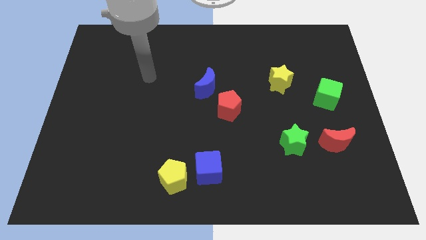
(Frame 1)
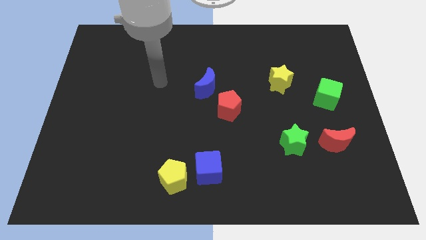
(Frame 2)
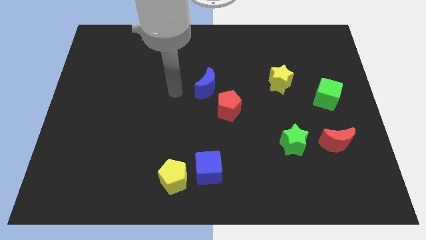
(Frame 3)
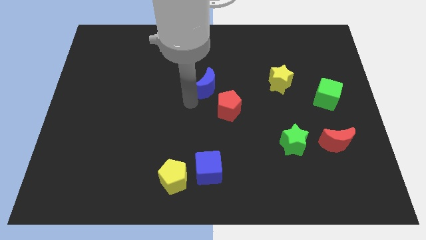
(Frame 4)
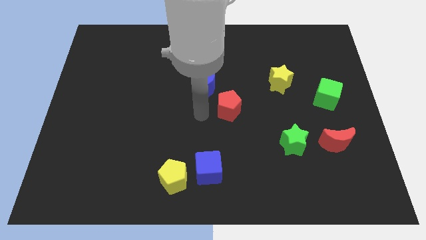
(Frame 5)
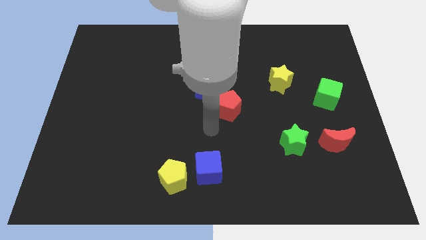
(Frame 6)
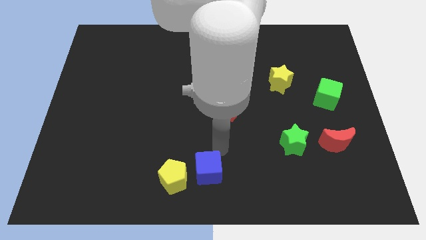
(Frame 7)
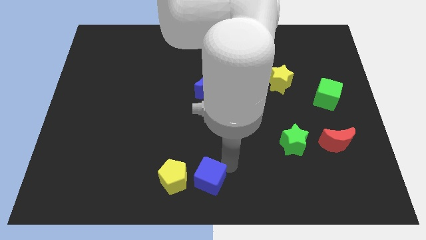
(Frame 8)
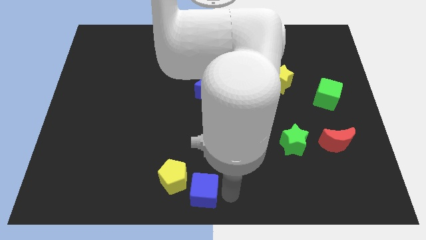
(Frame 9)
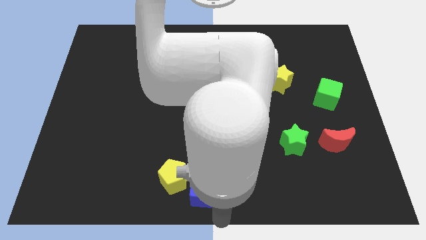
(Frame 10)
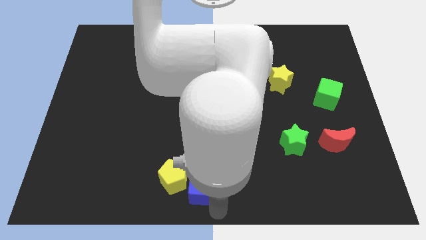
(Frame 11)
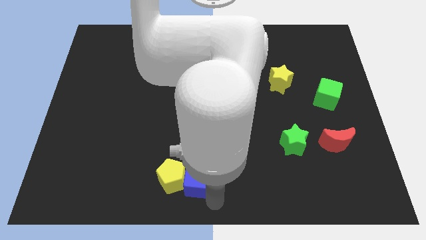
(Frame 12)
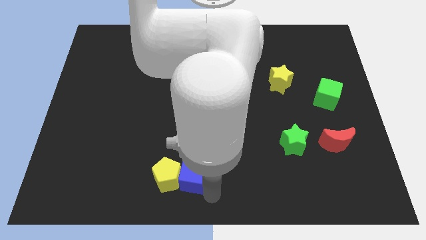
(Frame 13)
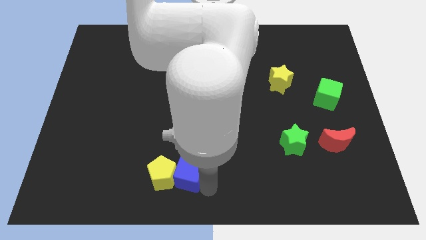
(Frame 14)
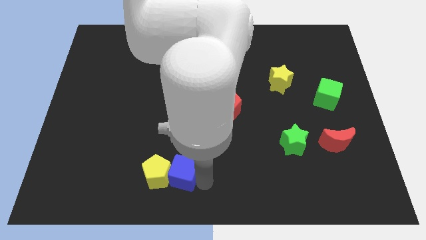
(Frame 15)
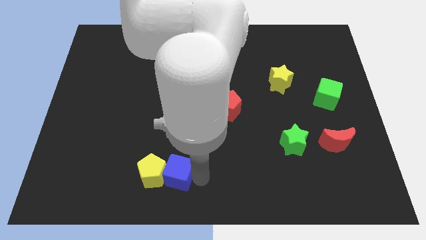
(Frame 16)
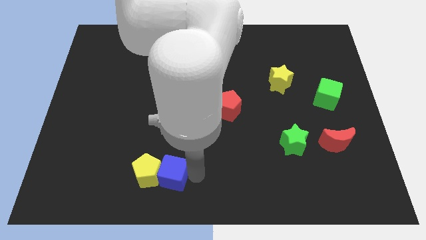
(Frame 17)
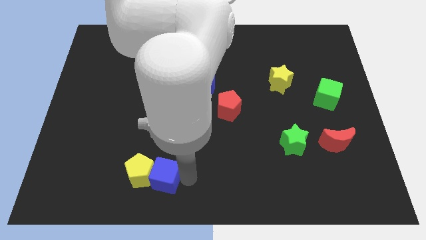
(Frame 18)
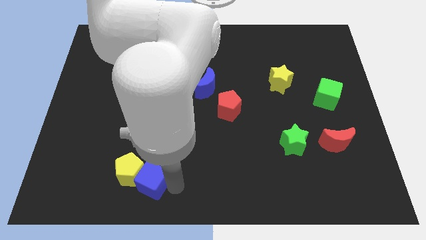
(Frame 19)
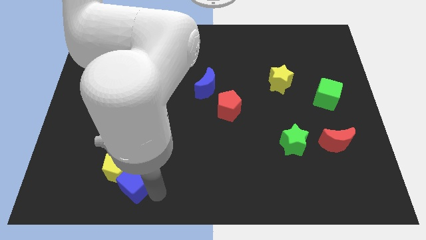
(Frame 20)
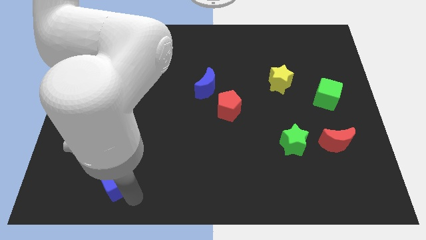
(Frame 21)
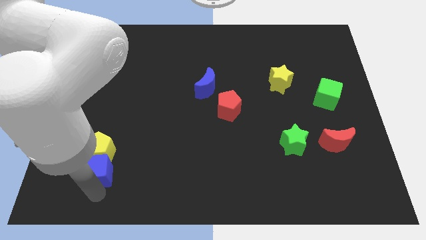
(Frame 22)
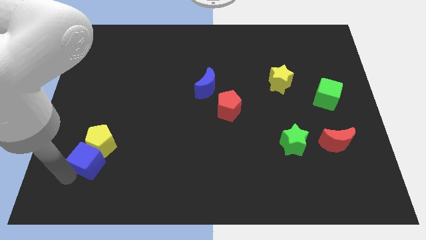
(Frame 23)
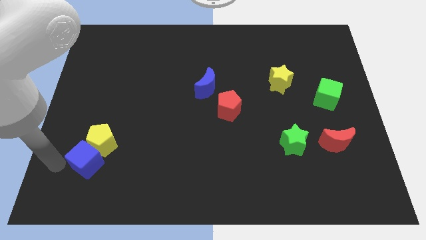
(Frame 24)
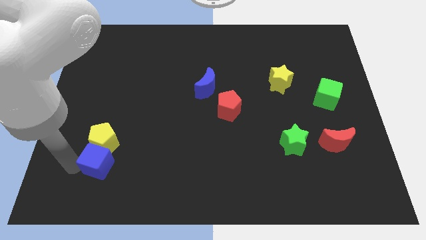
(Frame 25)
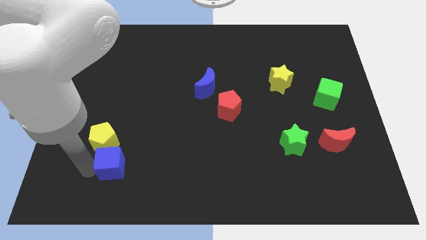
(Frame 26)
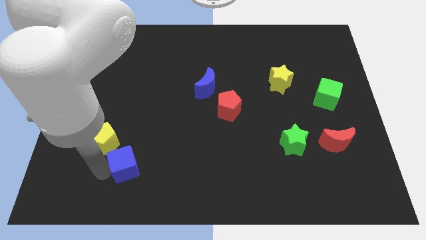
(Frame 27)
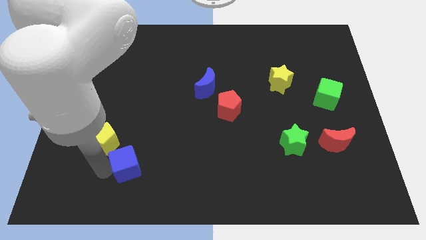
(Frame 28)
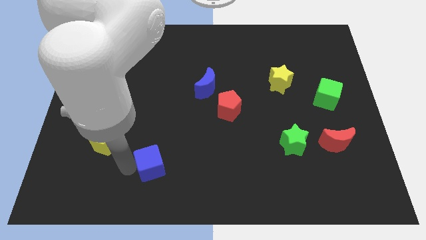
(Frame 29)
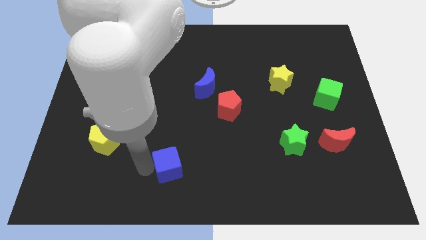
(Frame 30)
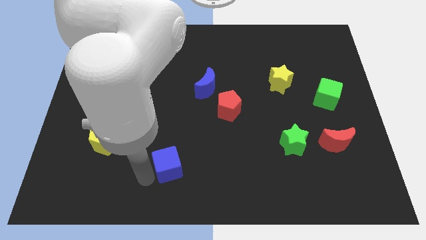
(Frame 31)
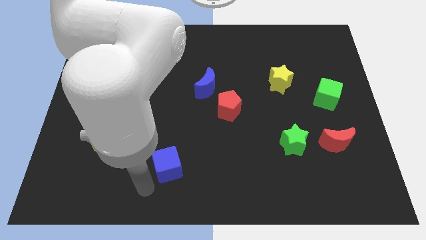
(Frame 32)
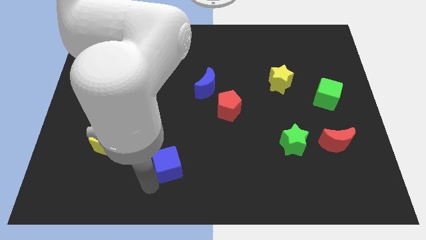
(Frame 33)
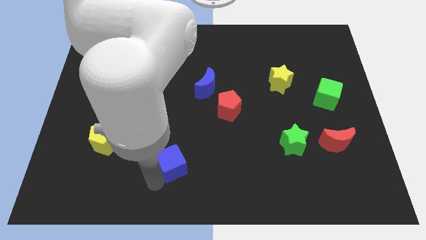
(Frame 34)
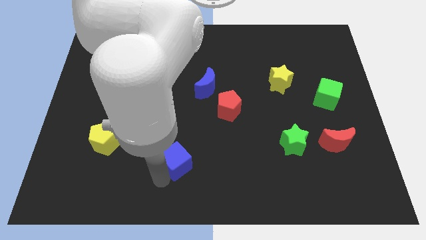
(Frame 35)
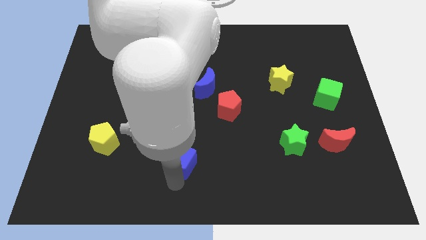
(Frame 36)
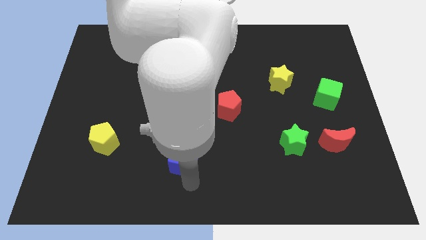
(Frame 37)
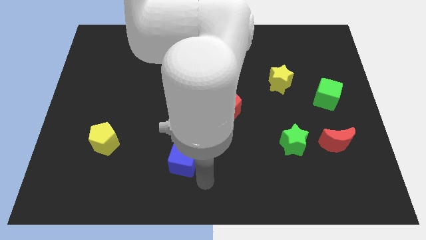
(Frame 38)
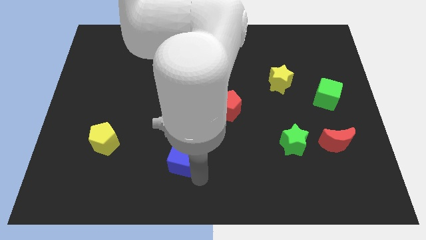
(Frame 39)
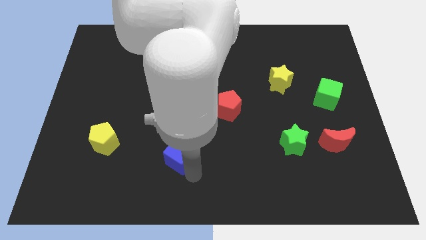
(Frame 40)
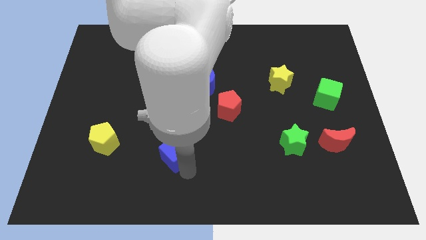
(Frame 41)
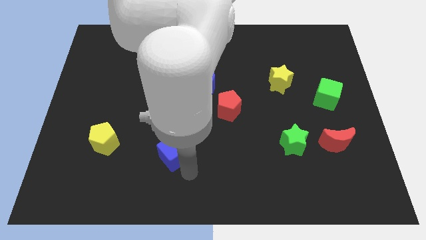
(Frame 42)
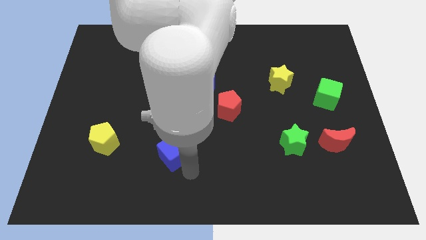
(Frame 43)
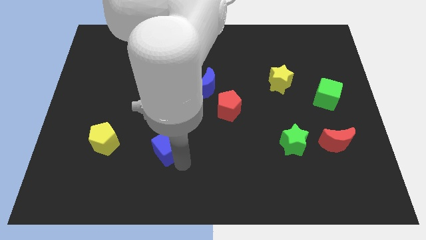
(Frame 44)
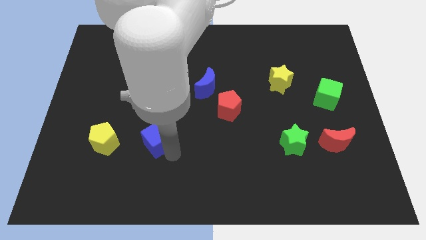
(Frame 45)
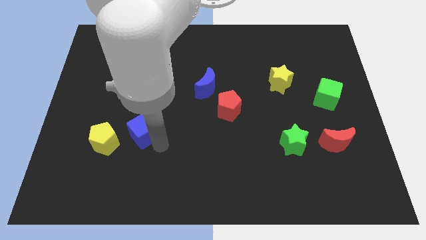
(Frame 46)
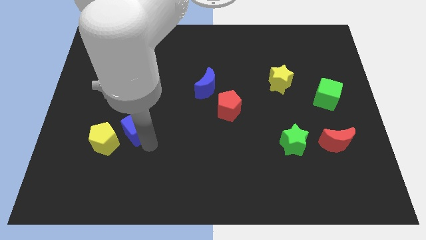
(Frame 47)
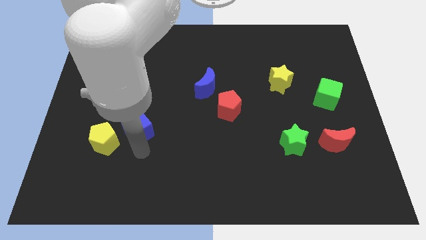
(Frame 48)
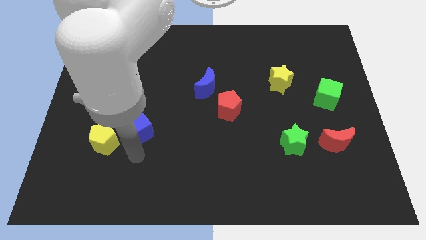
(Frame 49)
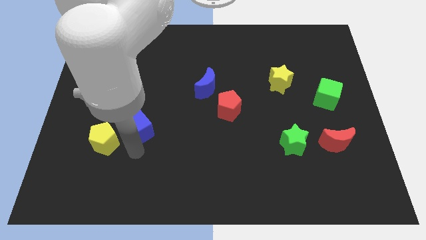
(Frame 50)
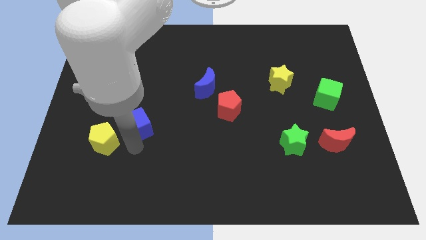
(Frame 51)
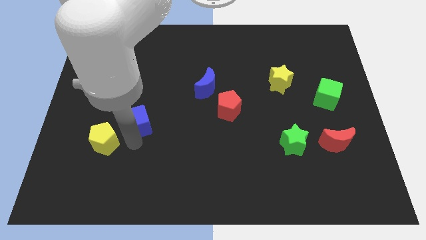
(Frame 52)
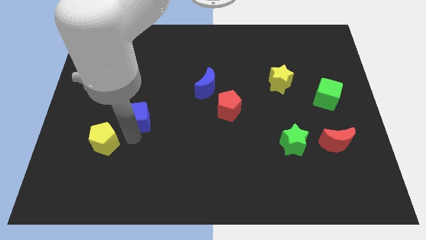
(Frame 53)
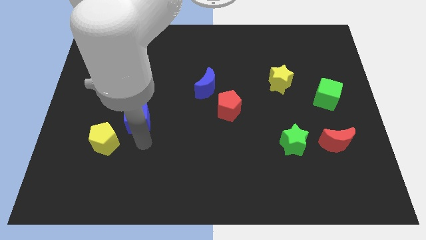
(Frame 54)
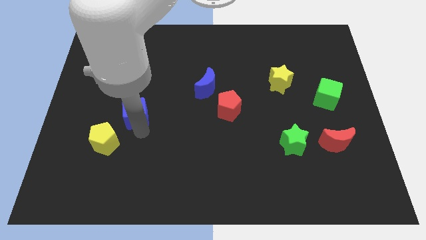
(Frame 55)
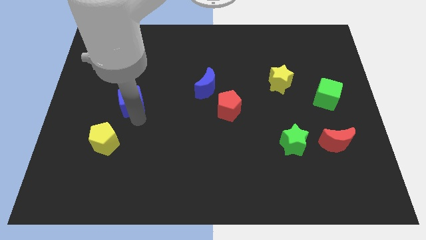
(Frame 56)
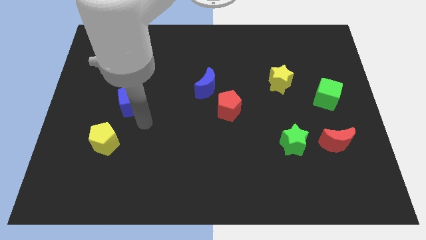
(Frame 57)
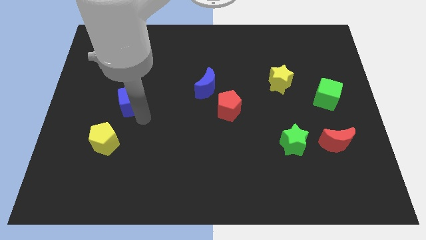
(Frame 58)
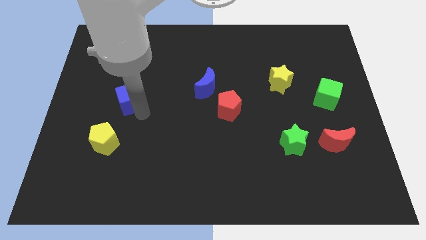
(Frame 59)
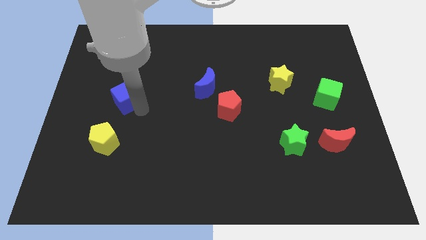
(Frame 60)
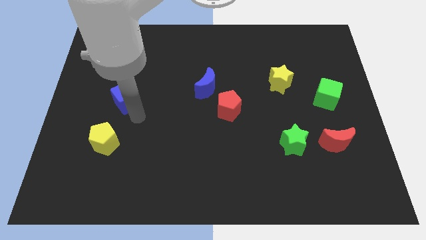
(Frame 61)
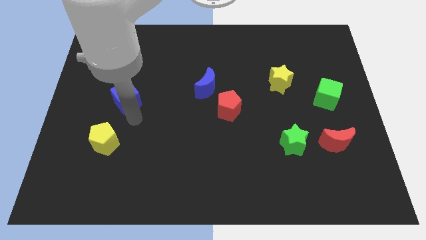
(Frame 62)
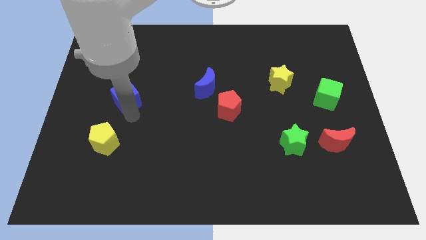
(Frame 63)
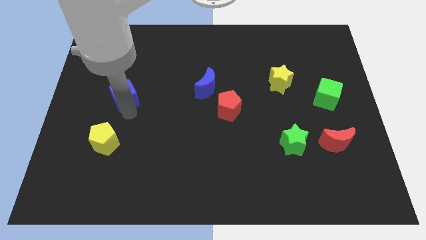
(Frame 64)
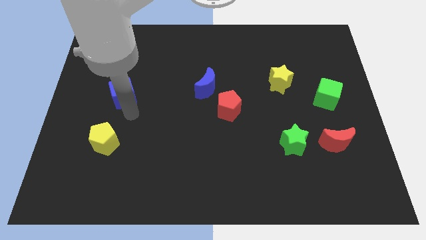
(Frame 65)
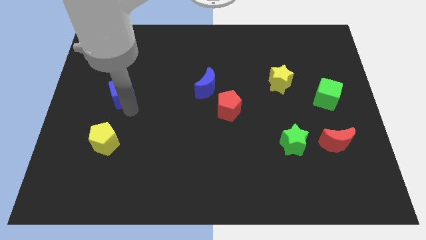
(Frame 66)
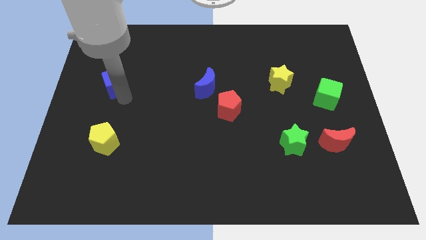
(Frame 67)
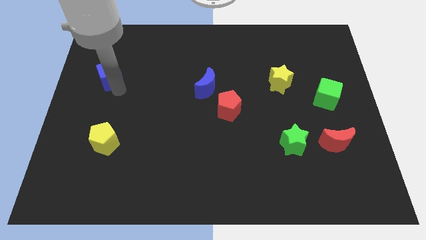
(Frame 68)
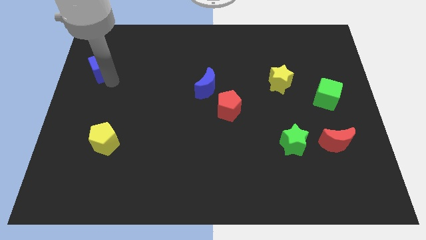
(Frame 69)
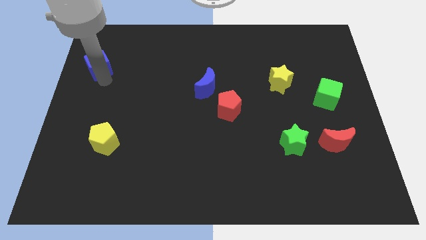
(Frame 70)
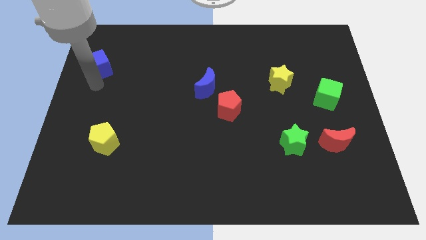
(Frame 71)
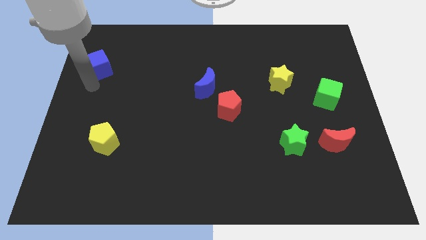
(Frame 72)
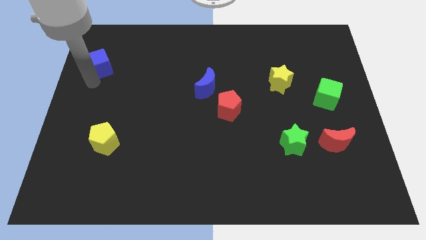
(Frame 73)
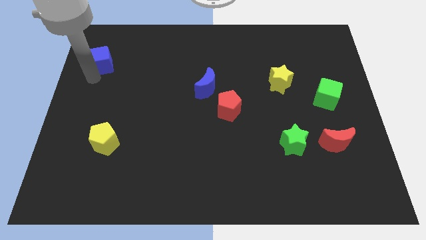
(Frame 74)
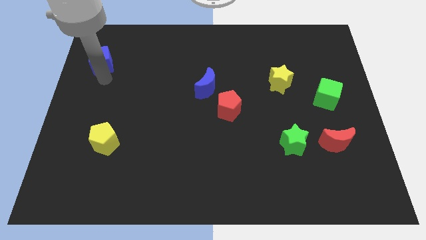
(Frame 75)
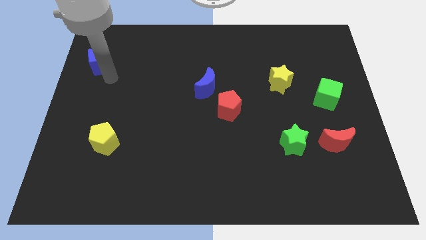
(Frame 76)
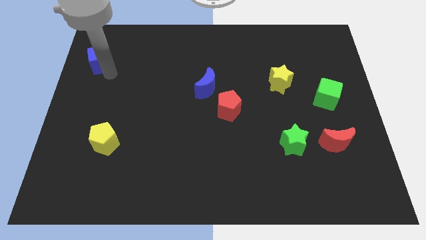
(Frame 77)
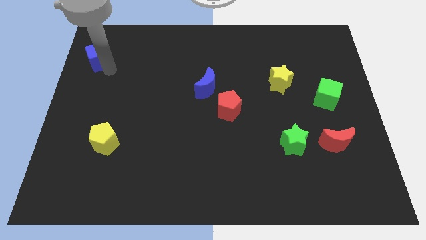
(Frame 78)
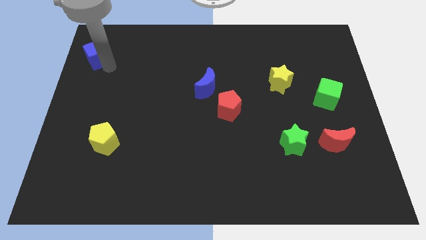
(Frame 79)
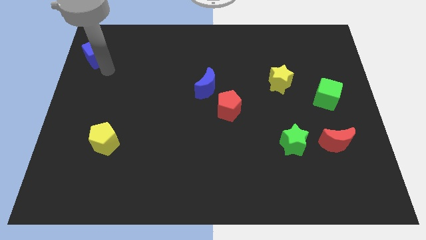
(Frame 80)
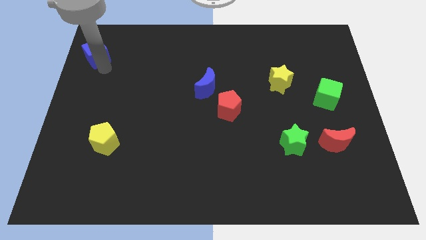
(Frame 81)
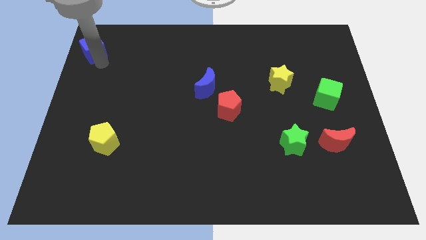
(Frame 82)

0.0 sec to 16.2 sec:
move the blue cube to the upper left corner
